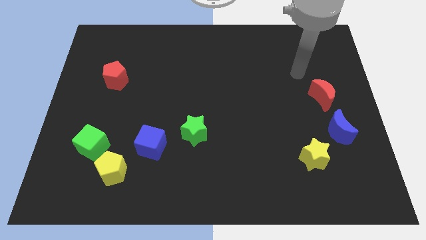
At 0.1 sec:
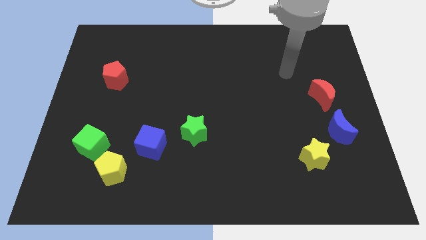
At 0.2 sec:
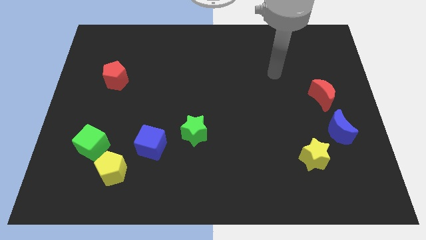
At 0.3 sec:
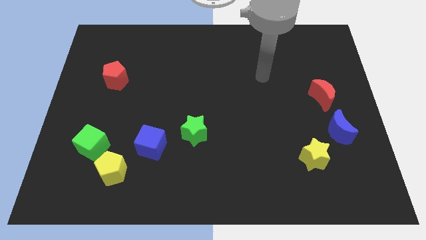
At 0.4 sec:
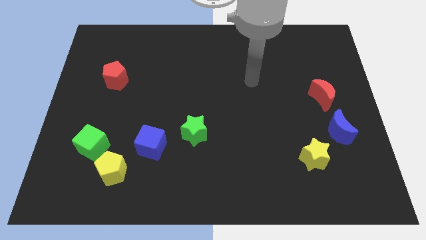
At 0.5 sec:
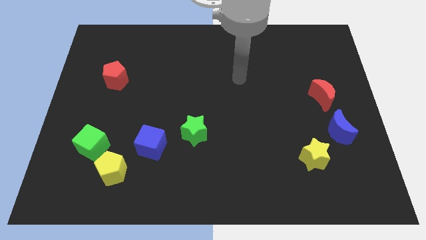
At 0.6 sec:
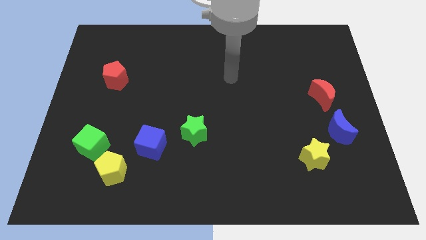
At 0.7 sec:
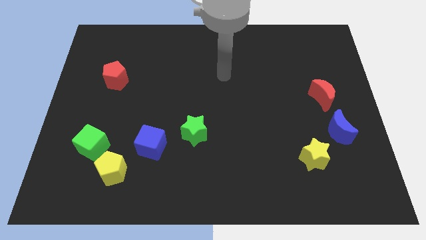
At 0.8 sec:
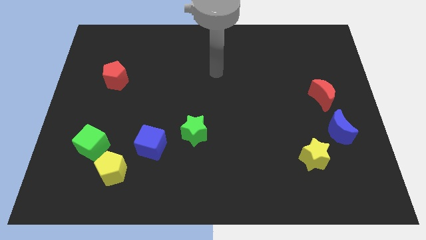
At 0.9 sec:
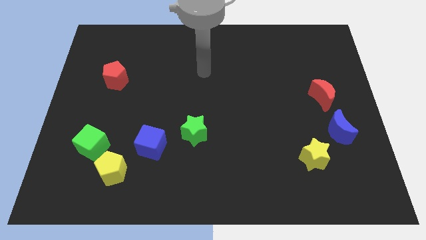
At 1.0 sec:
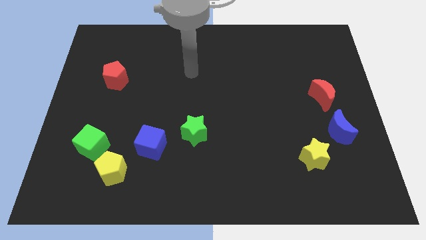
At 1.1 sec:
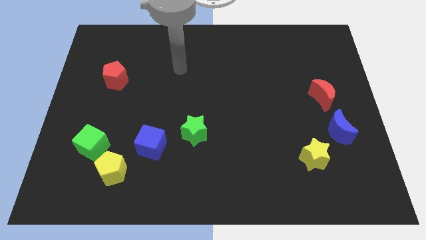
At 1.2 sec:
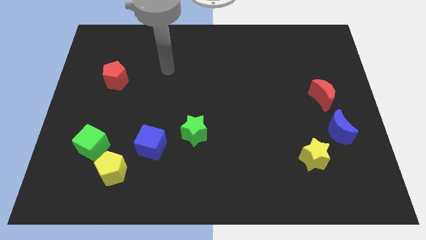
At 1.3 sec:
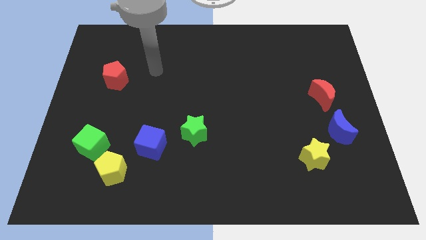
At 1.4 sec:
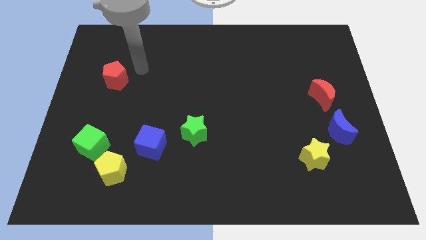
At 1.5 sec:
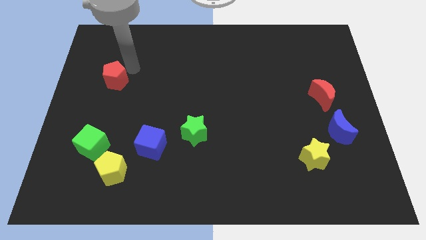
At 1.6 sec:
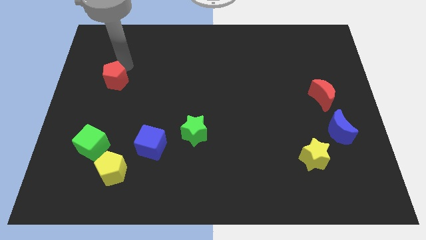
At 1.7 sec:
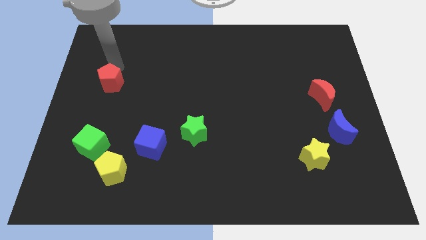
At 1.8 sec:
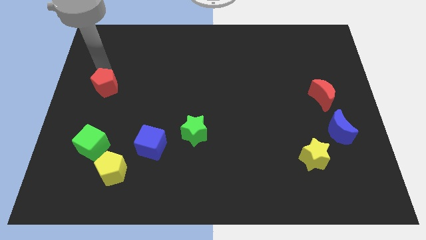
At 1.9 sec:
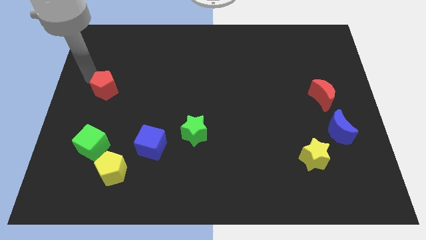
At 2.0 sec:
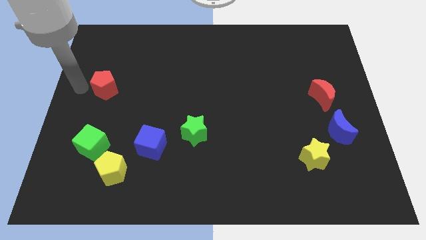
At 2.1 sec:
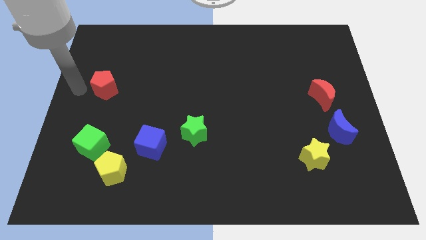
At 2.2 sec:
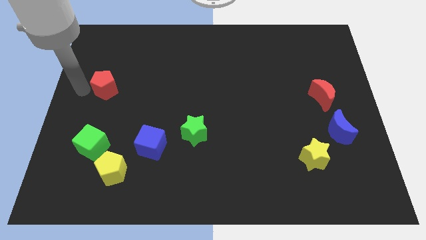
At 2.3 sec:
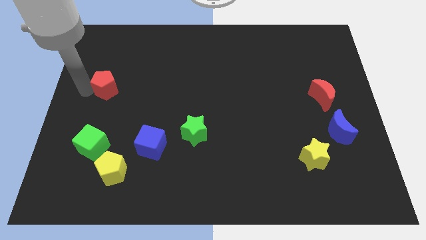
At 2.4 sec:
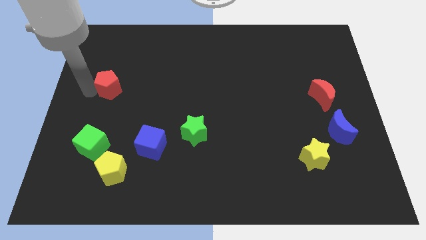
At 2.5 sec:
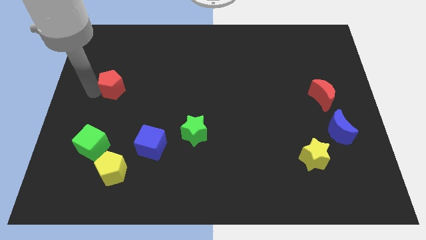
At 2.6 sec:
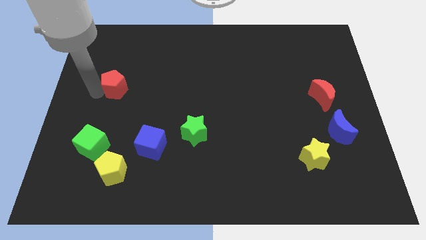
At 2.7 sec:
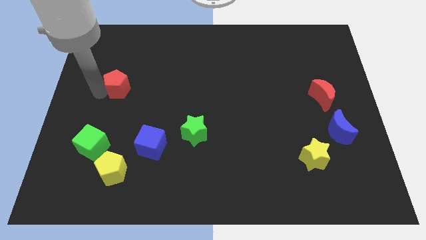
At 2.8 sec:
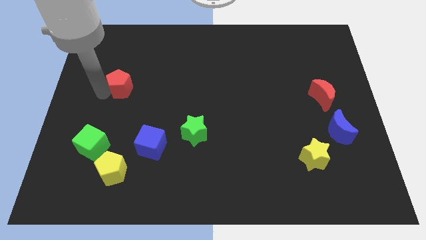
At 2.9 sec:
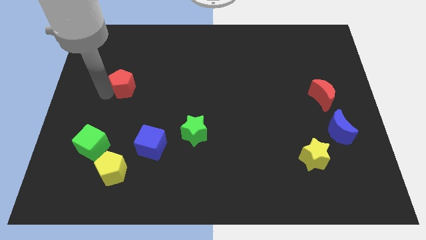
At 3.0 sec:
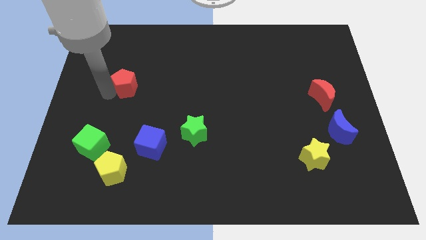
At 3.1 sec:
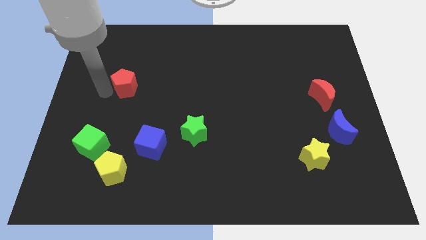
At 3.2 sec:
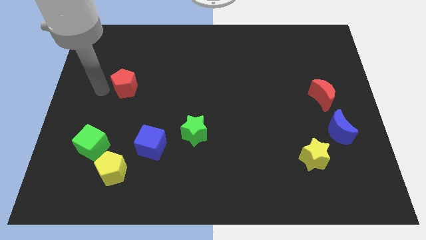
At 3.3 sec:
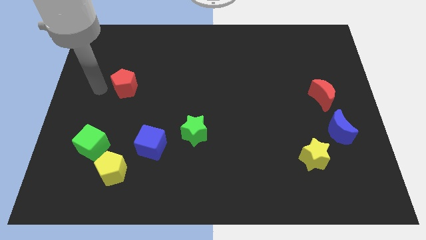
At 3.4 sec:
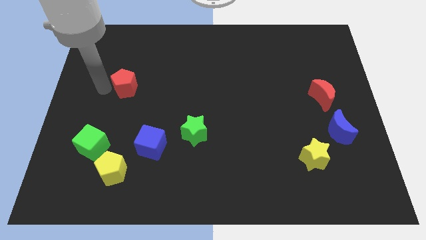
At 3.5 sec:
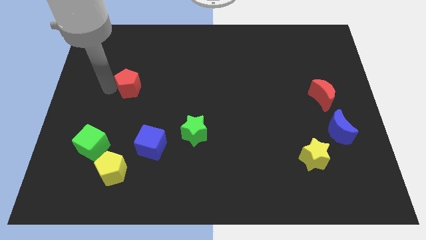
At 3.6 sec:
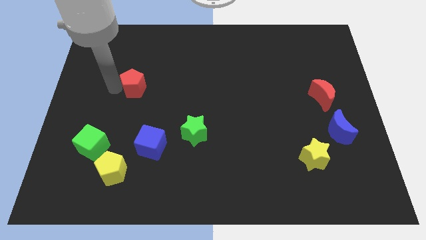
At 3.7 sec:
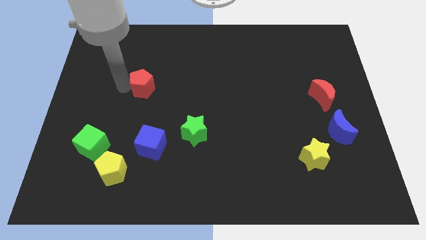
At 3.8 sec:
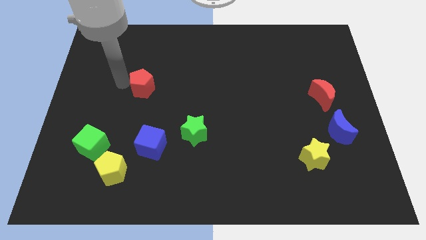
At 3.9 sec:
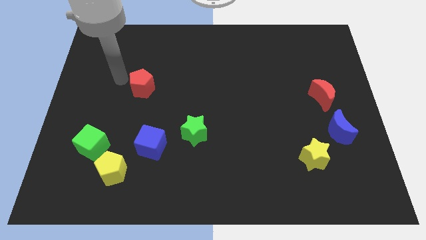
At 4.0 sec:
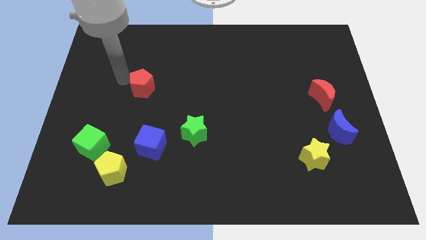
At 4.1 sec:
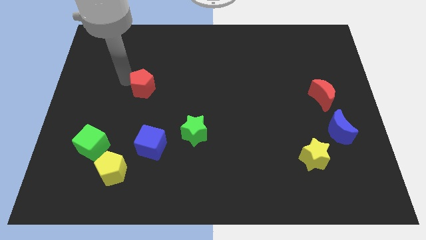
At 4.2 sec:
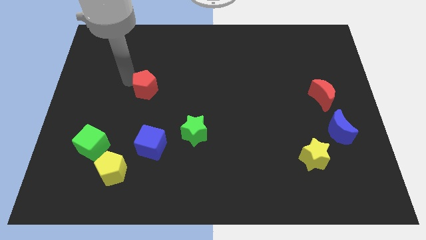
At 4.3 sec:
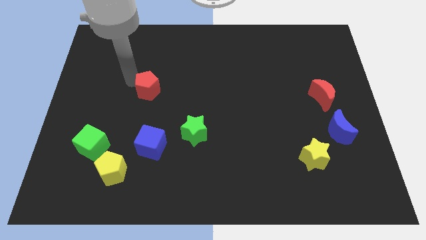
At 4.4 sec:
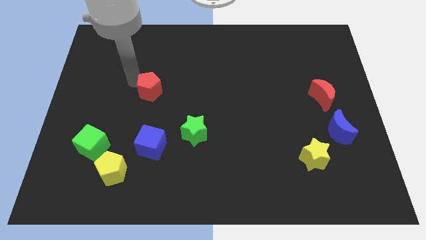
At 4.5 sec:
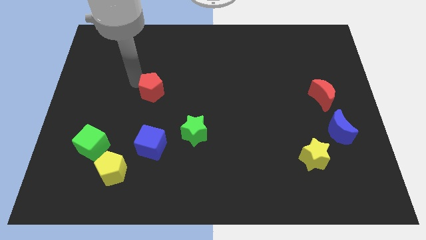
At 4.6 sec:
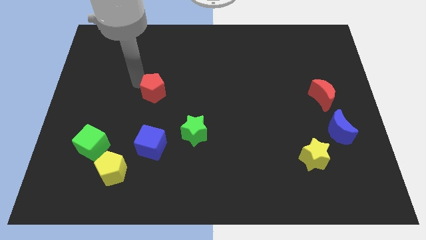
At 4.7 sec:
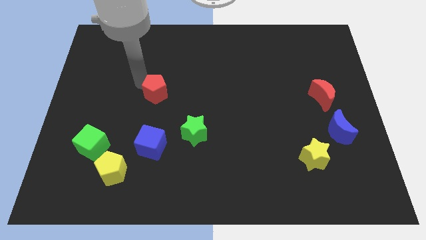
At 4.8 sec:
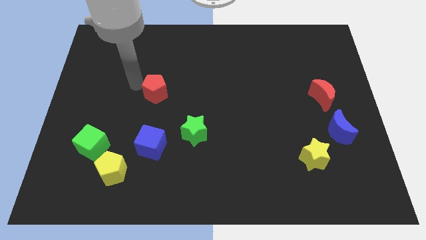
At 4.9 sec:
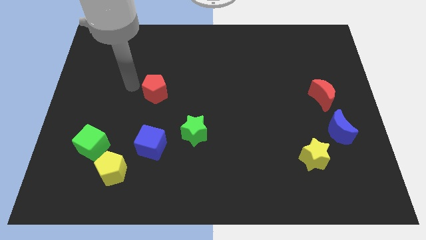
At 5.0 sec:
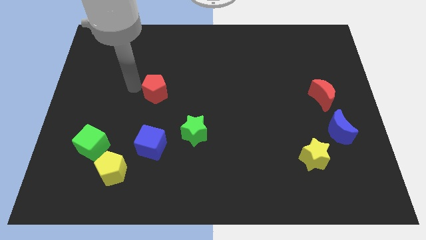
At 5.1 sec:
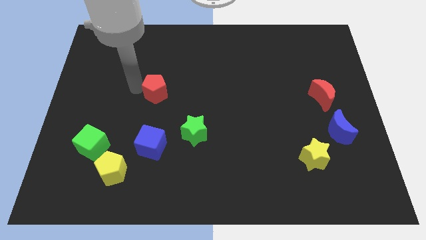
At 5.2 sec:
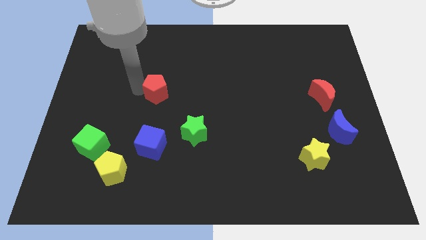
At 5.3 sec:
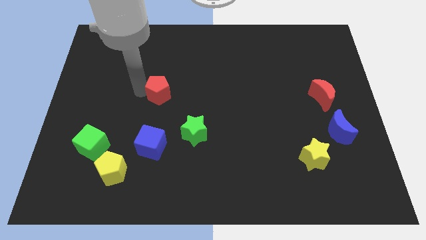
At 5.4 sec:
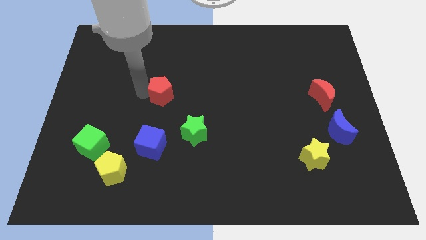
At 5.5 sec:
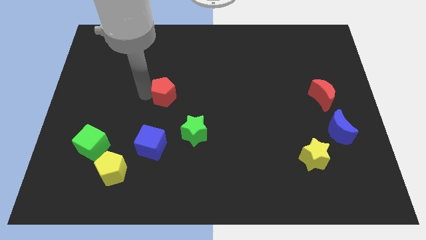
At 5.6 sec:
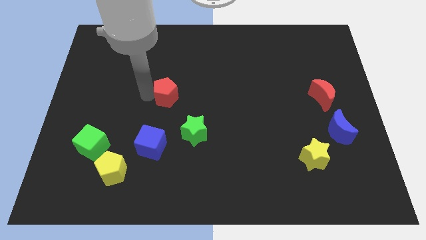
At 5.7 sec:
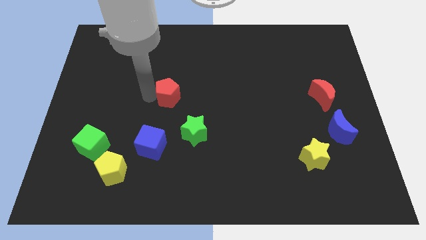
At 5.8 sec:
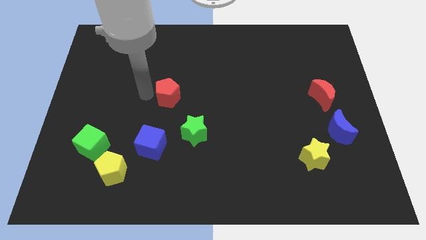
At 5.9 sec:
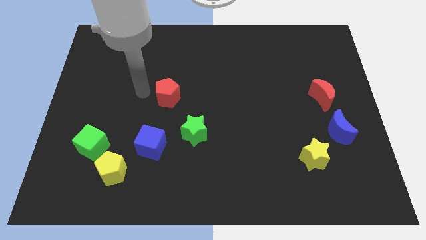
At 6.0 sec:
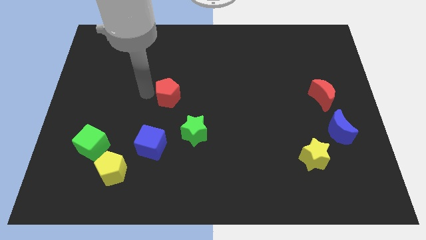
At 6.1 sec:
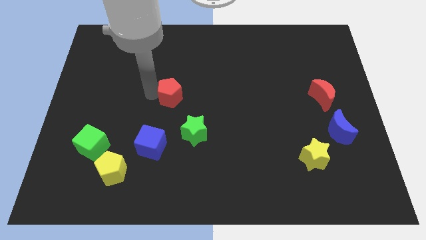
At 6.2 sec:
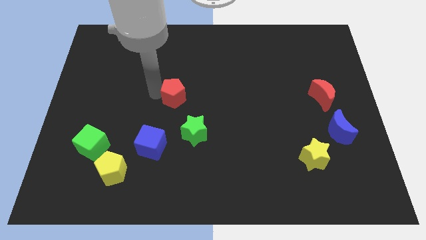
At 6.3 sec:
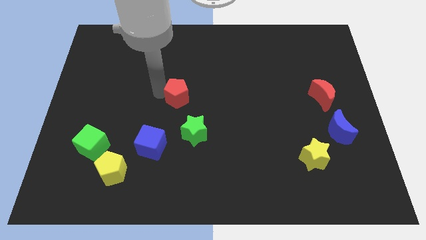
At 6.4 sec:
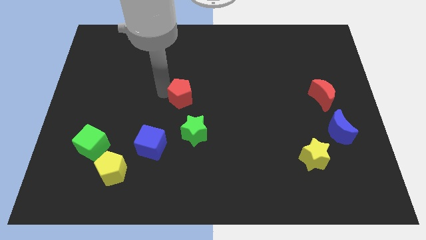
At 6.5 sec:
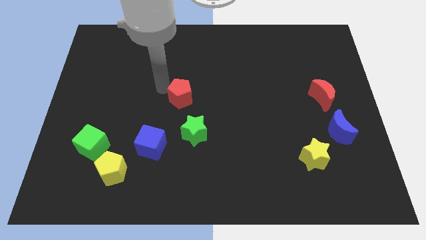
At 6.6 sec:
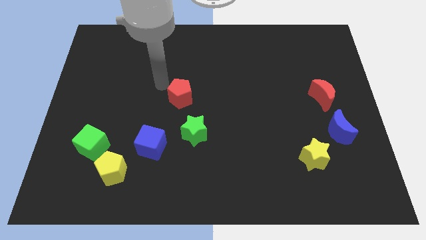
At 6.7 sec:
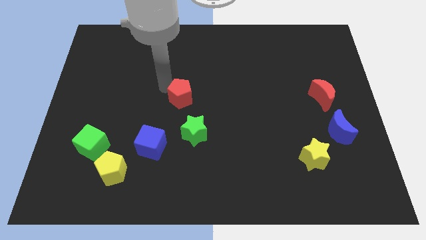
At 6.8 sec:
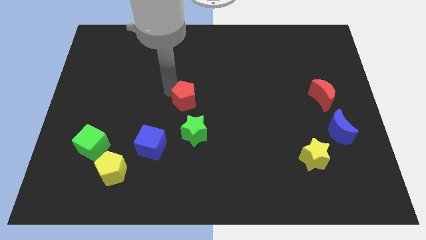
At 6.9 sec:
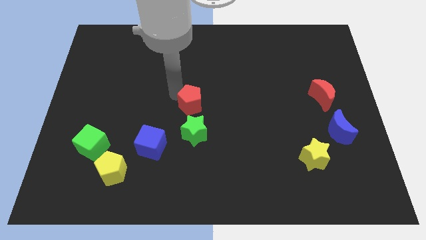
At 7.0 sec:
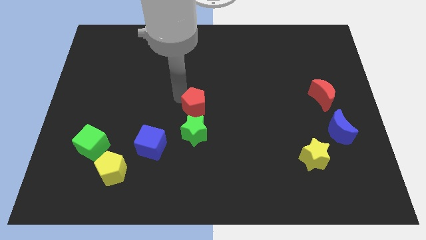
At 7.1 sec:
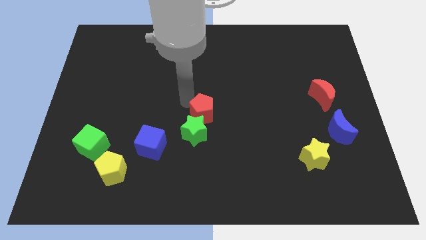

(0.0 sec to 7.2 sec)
slide the red pentagon downwards and right

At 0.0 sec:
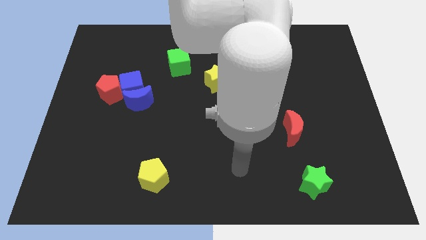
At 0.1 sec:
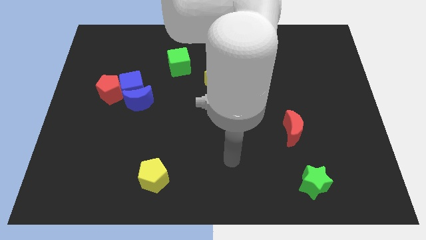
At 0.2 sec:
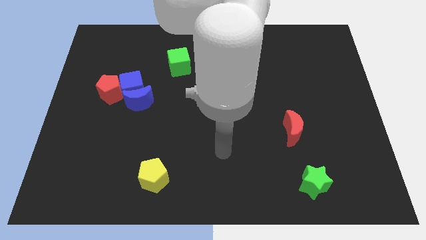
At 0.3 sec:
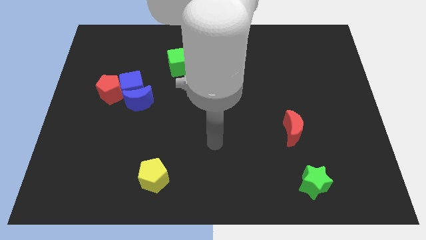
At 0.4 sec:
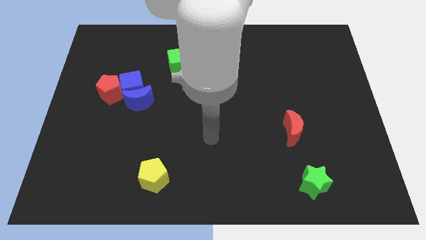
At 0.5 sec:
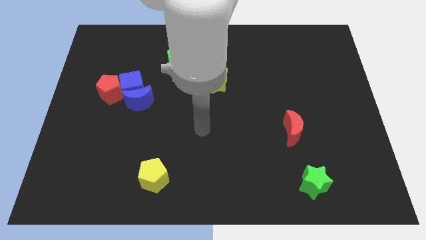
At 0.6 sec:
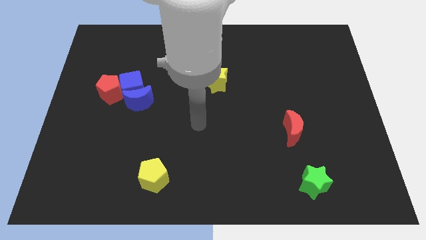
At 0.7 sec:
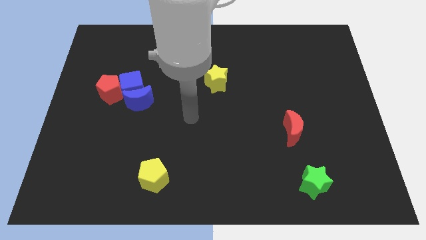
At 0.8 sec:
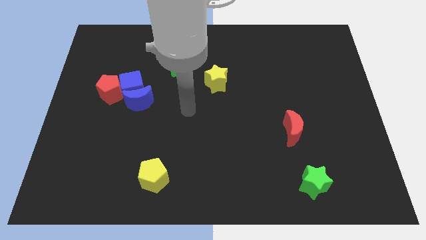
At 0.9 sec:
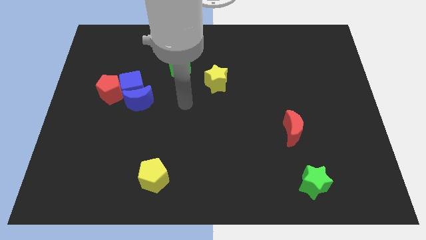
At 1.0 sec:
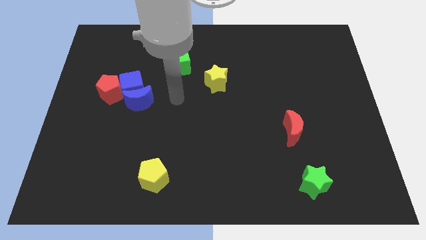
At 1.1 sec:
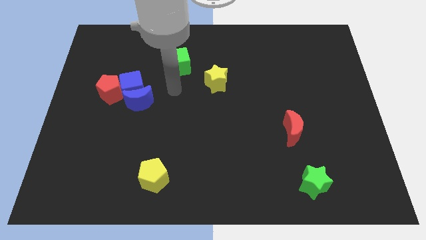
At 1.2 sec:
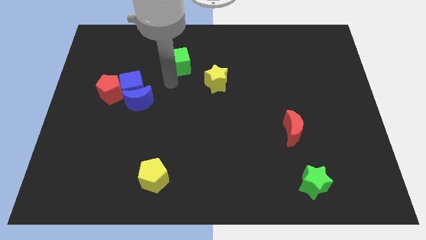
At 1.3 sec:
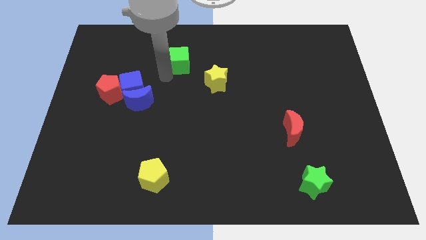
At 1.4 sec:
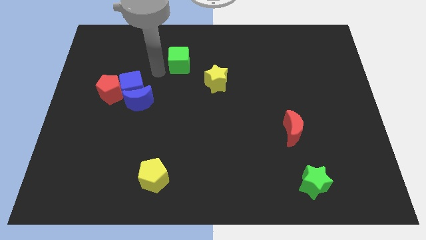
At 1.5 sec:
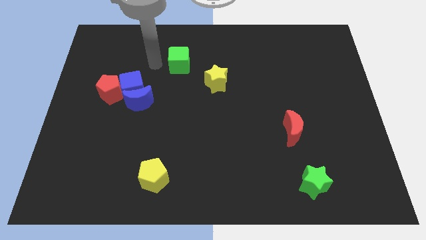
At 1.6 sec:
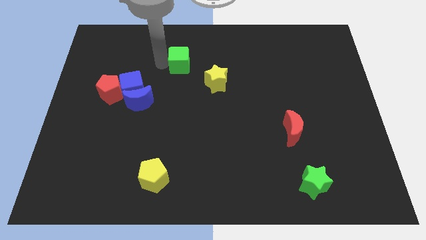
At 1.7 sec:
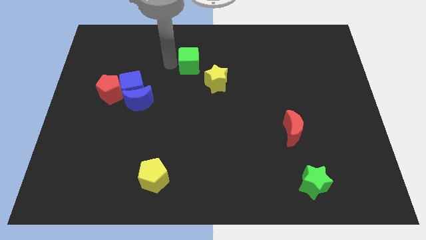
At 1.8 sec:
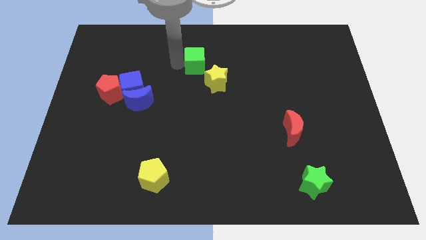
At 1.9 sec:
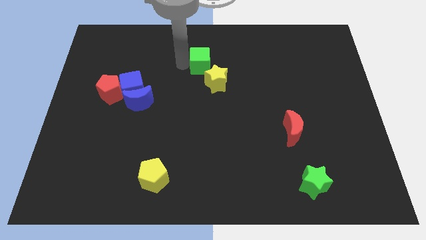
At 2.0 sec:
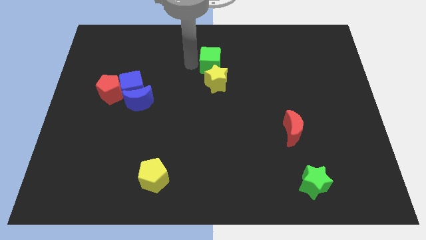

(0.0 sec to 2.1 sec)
slide the green cube somewhat right
